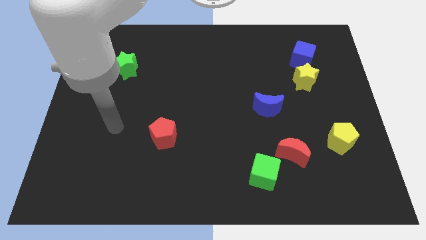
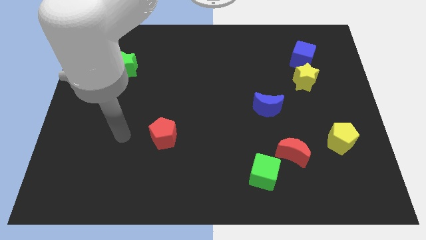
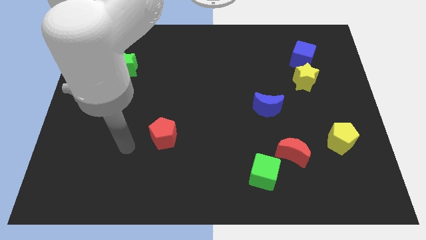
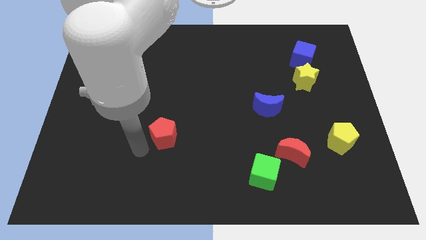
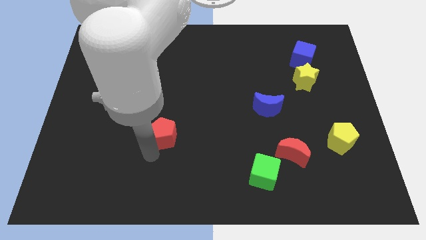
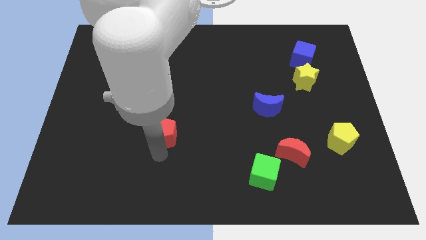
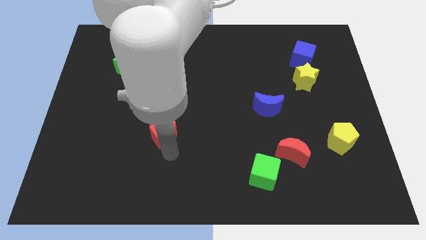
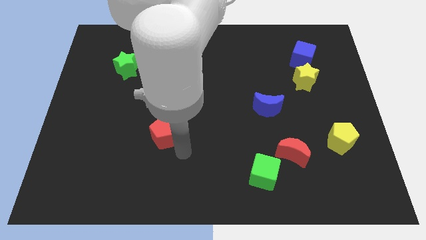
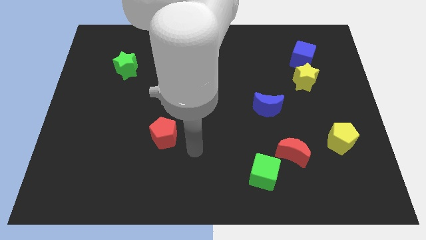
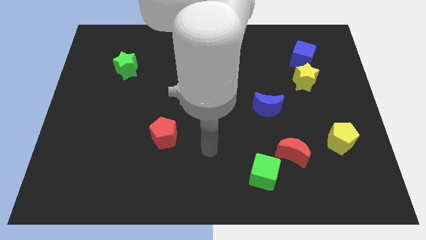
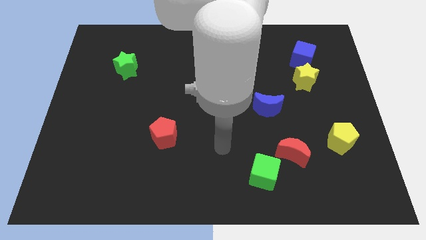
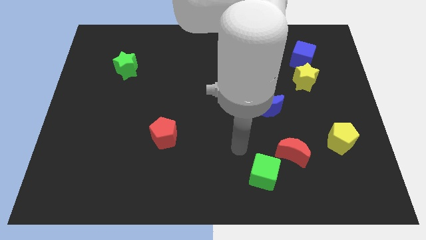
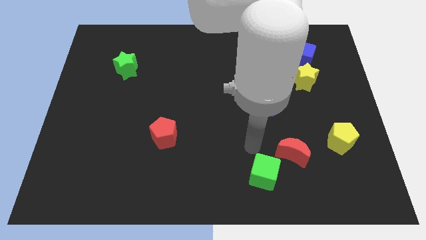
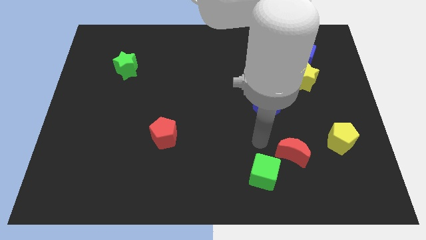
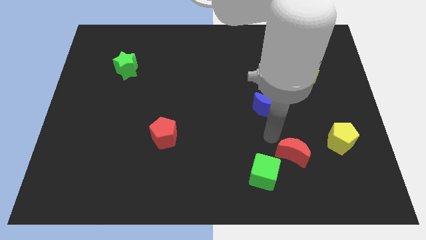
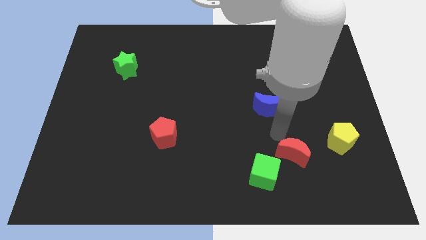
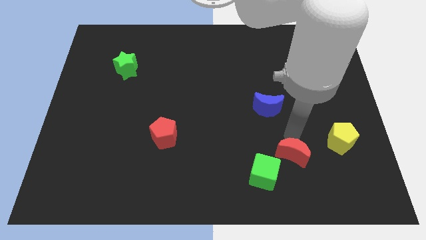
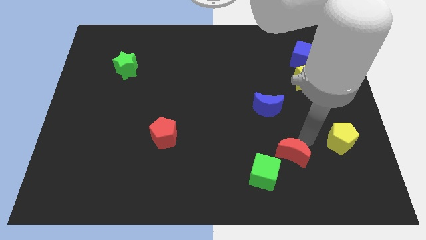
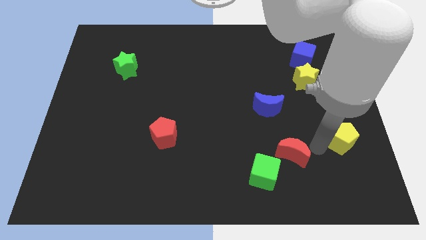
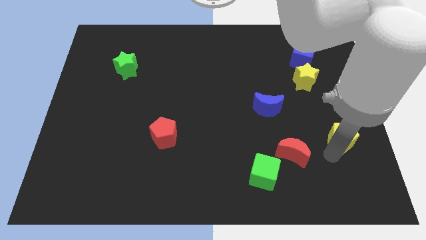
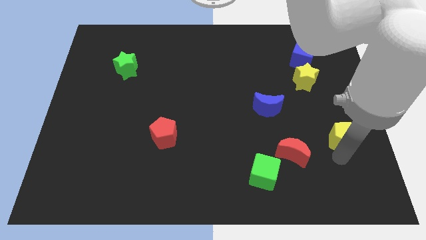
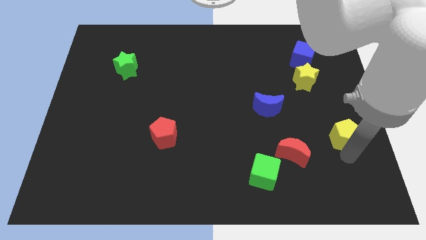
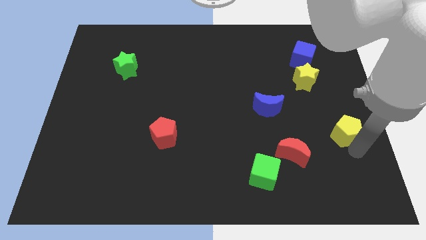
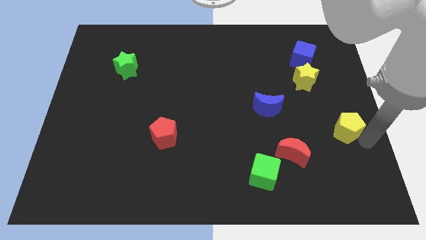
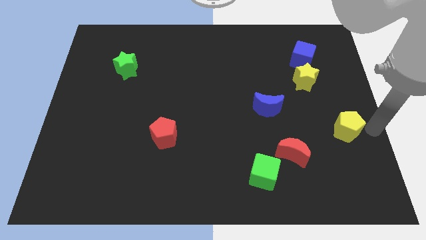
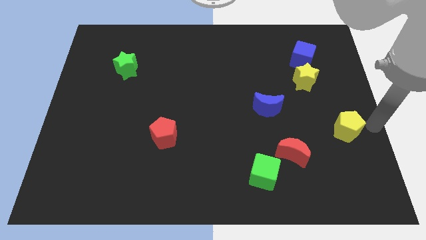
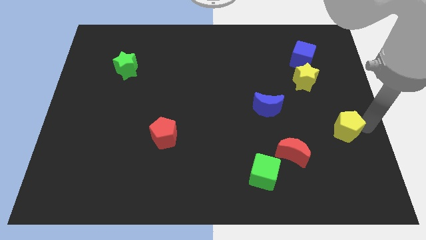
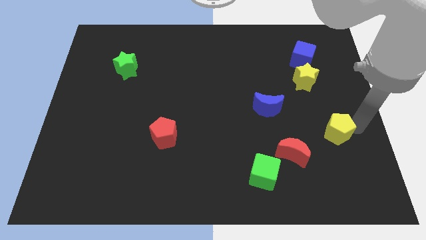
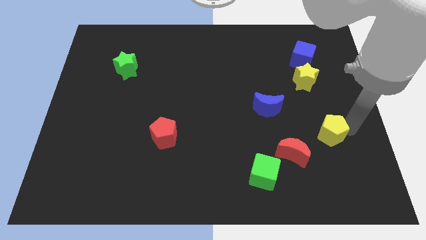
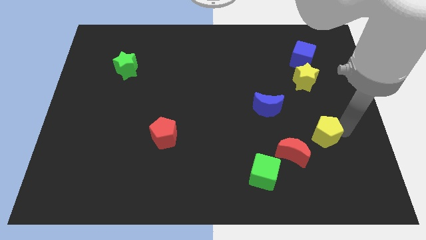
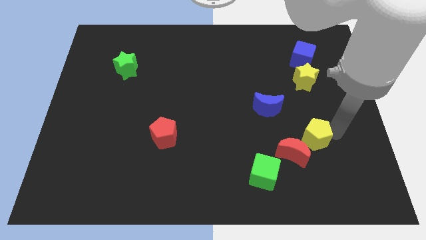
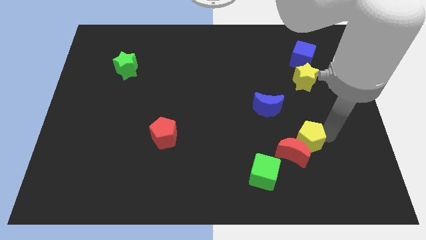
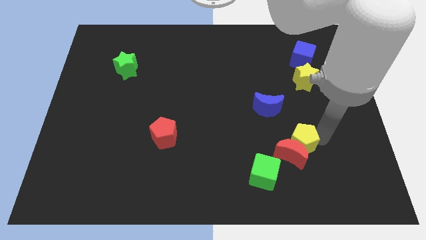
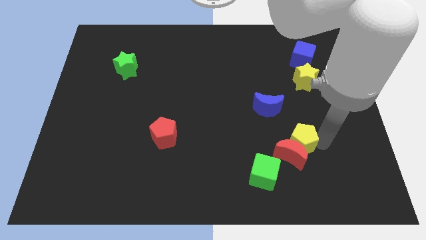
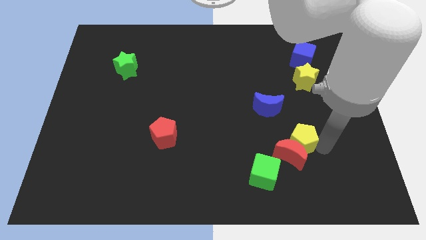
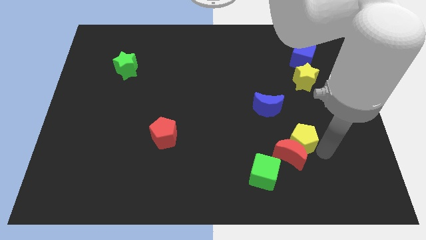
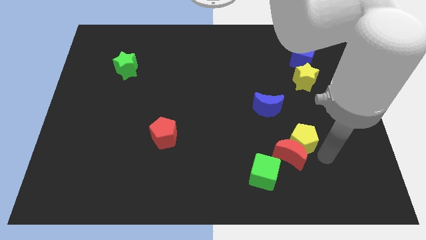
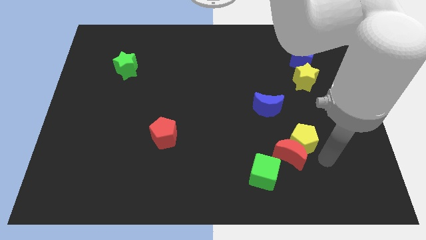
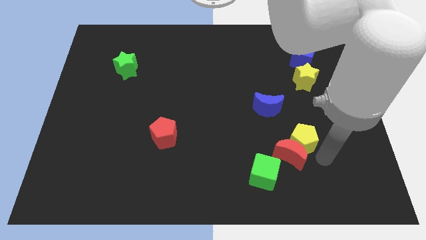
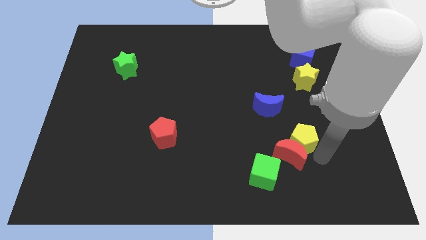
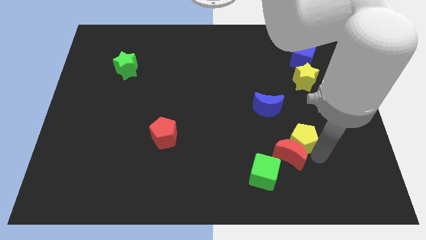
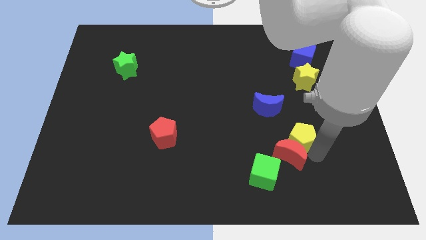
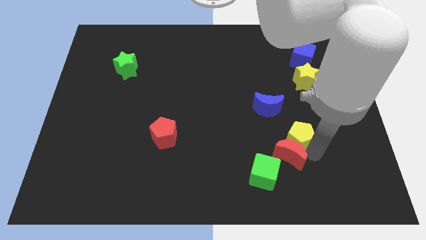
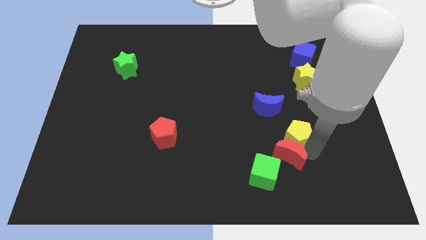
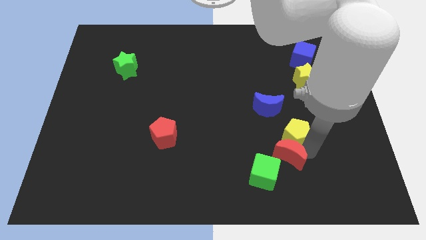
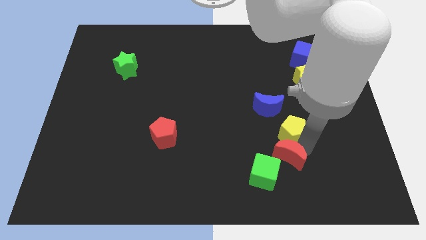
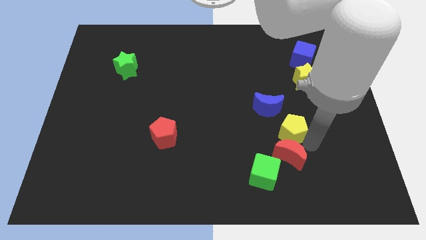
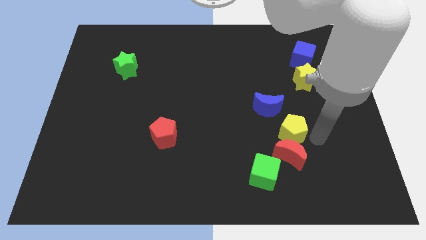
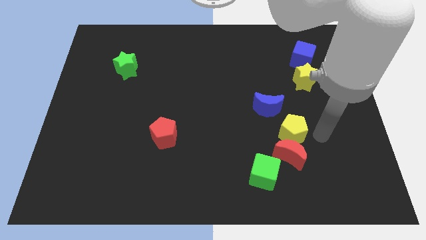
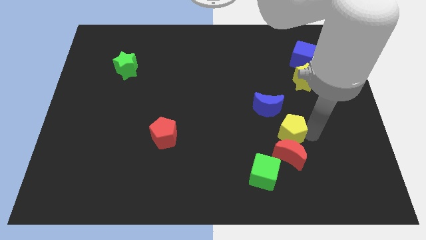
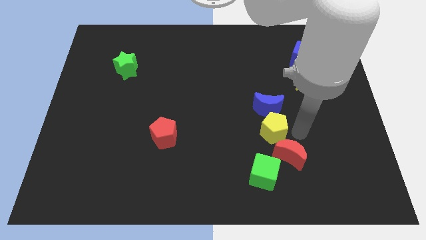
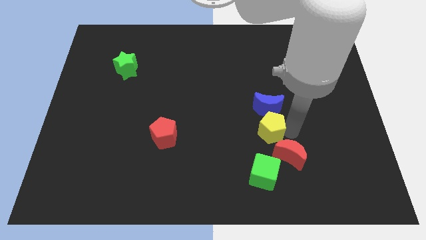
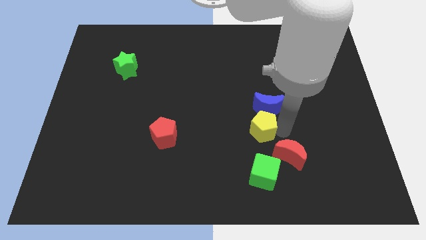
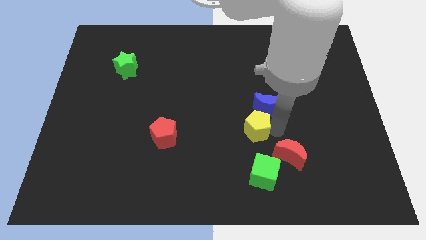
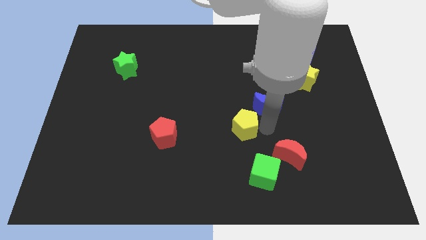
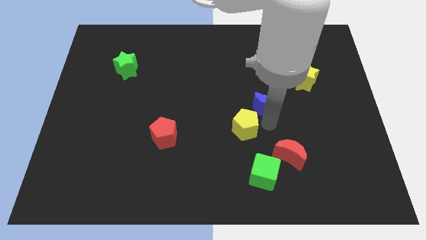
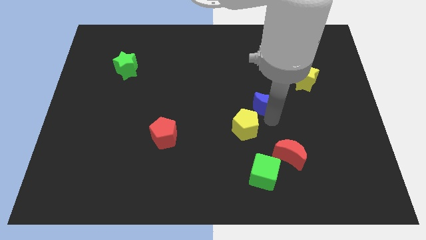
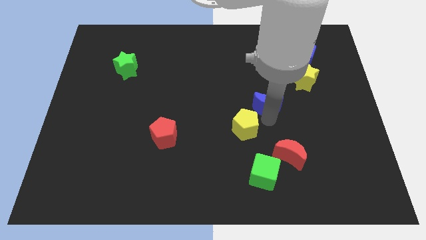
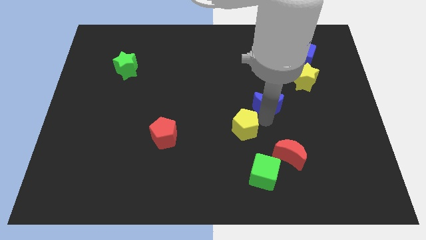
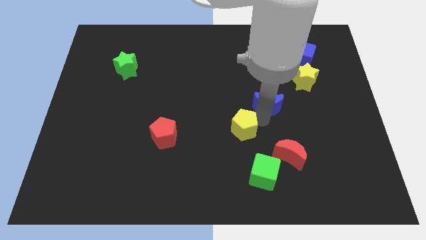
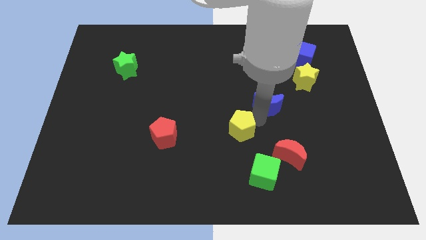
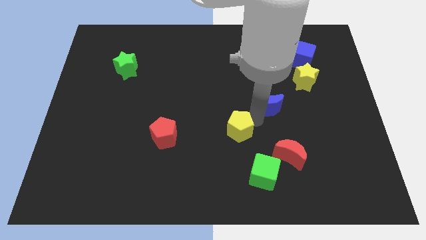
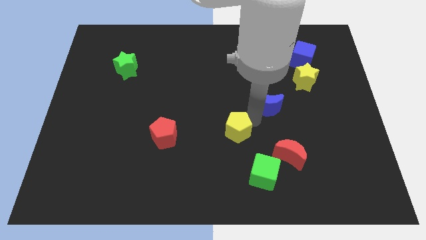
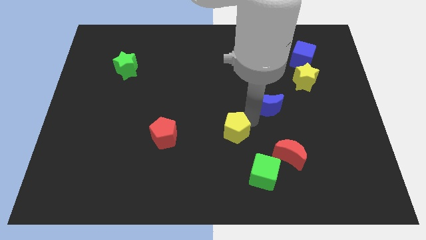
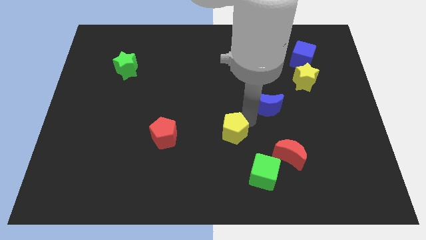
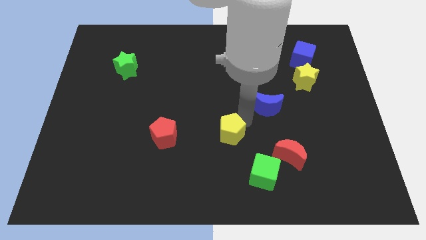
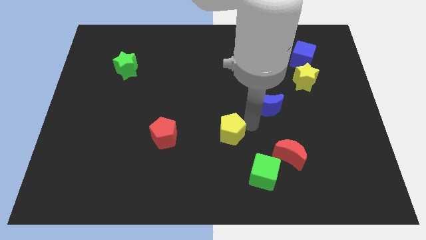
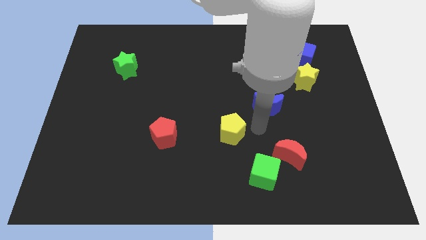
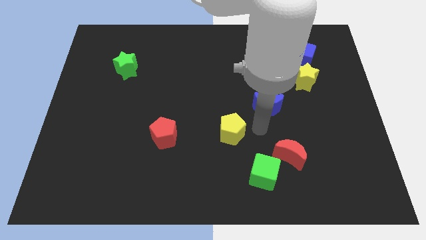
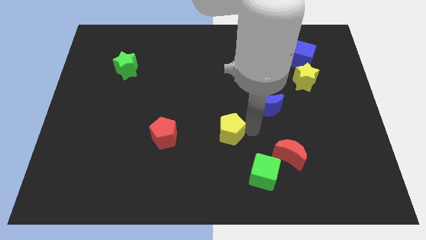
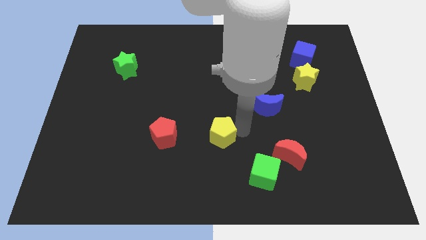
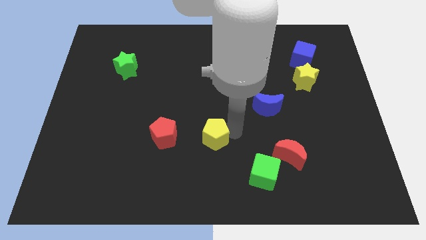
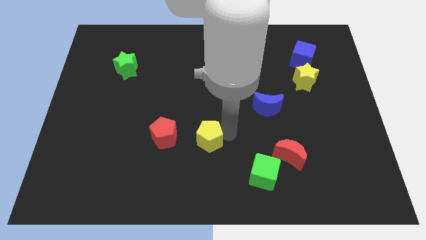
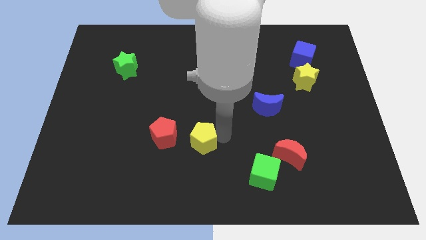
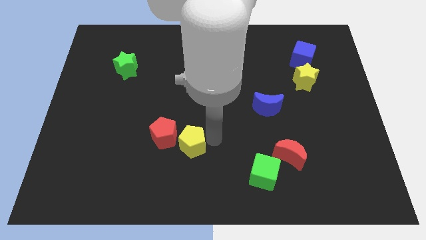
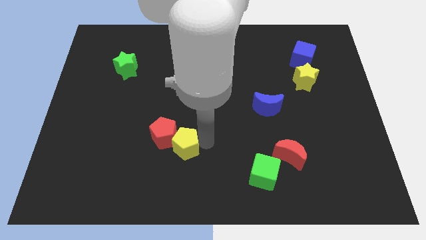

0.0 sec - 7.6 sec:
put the yellow pentagon next to the red pentagon
